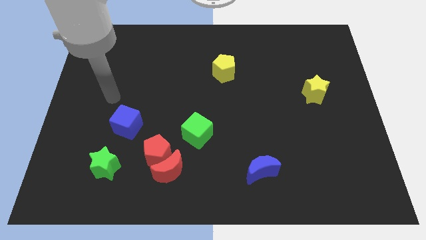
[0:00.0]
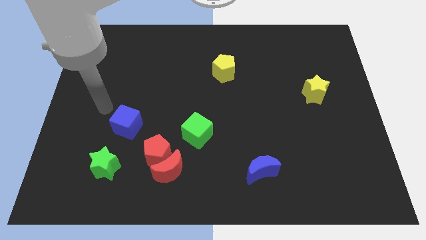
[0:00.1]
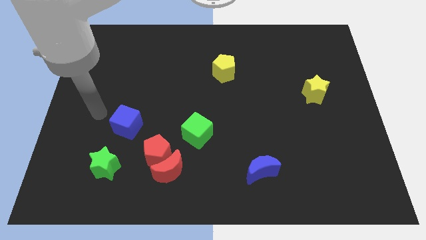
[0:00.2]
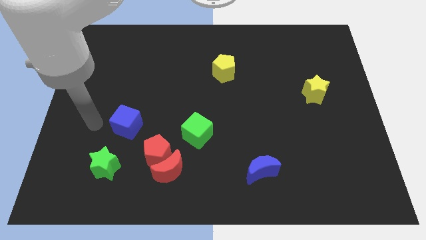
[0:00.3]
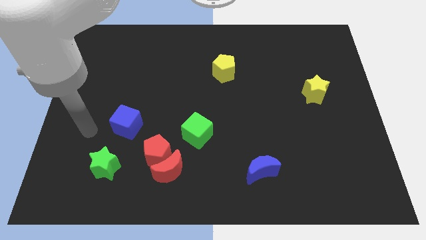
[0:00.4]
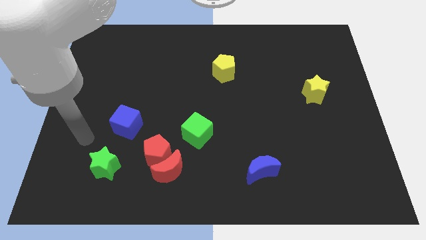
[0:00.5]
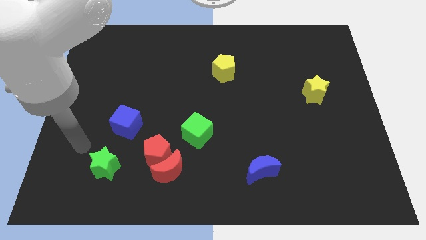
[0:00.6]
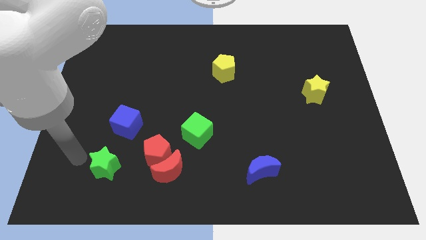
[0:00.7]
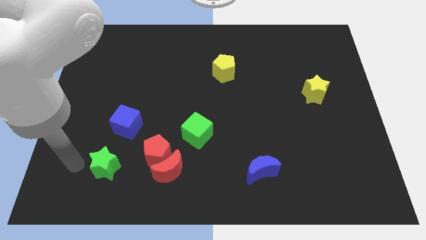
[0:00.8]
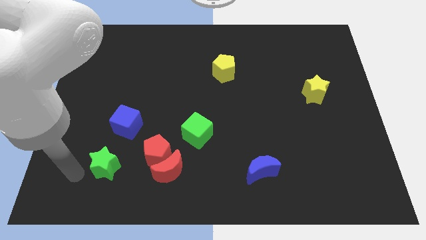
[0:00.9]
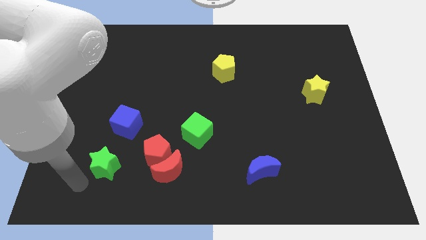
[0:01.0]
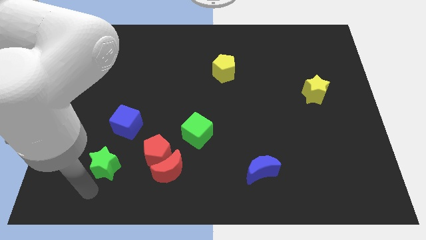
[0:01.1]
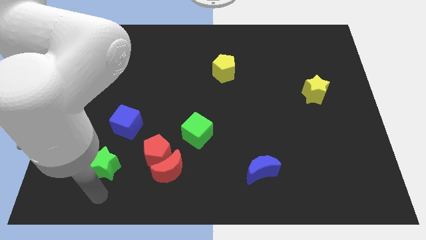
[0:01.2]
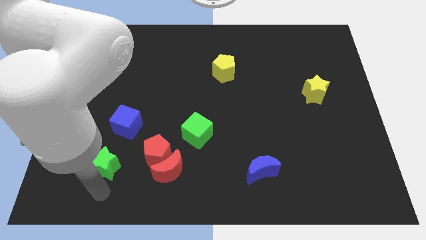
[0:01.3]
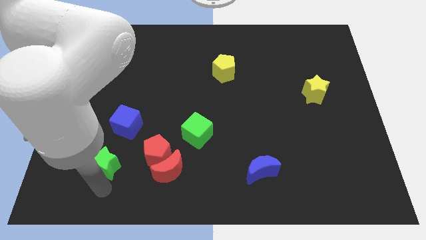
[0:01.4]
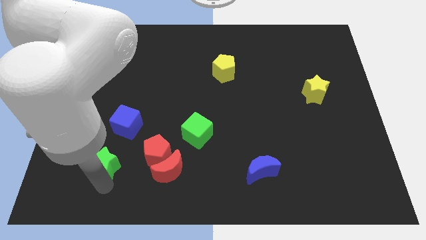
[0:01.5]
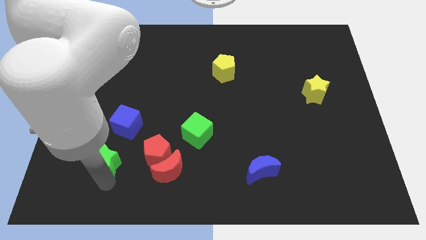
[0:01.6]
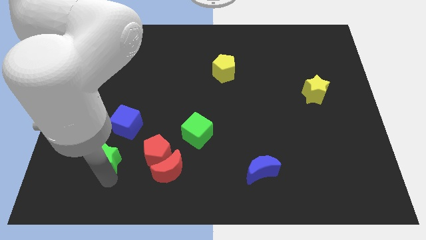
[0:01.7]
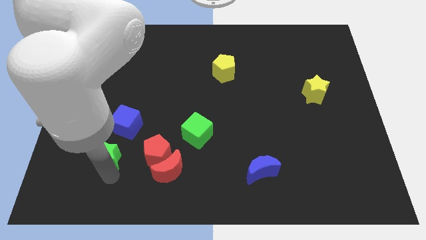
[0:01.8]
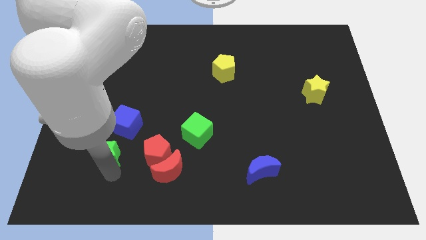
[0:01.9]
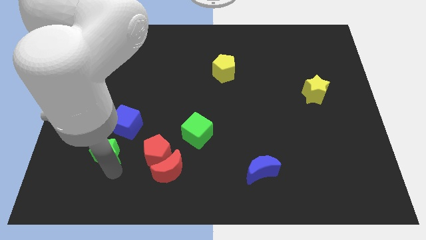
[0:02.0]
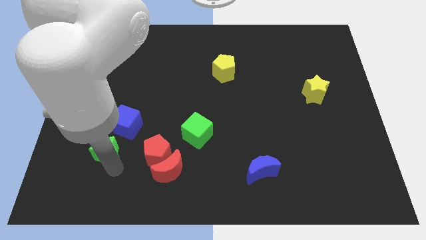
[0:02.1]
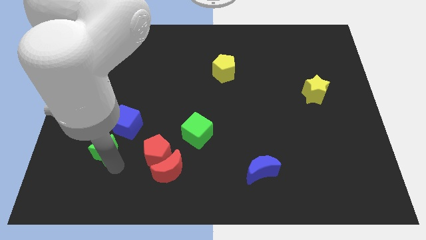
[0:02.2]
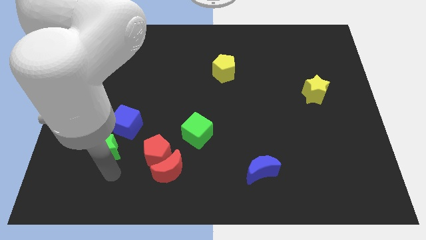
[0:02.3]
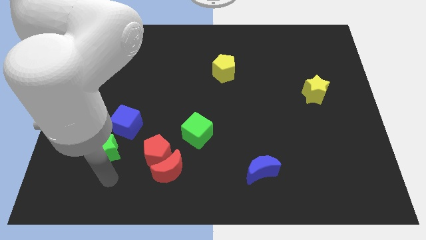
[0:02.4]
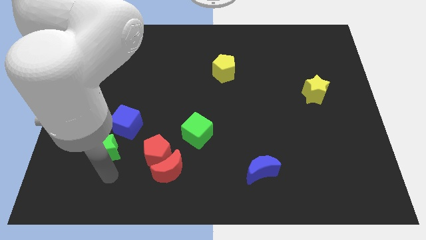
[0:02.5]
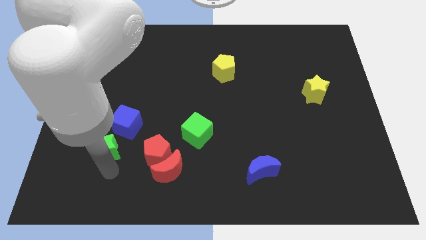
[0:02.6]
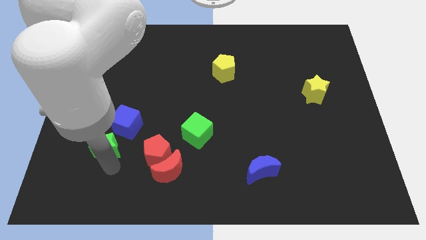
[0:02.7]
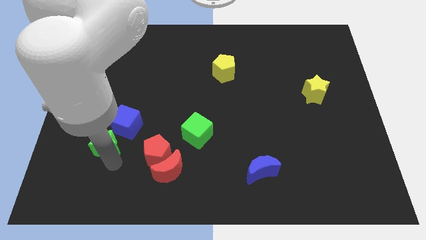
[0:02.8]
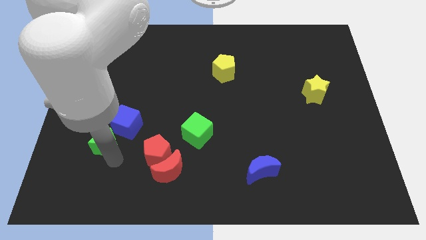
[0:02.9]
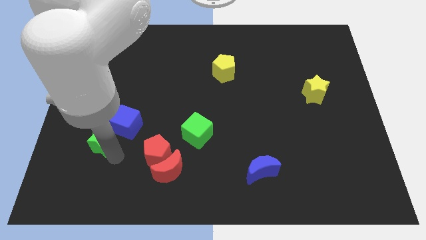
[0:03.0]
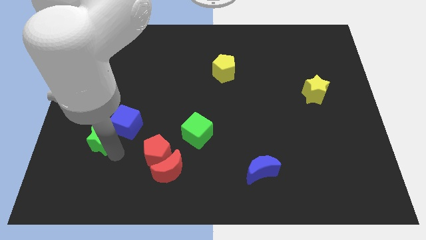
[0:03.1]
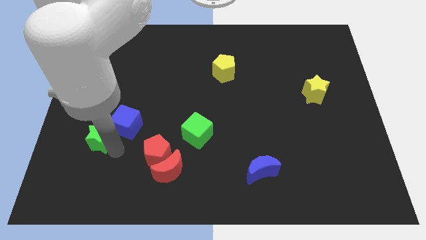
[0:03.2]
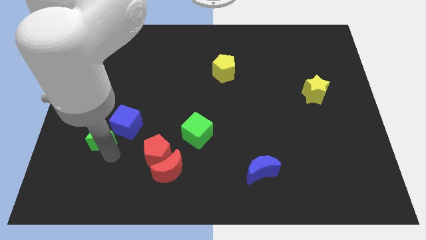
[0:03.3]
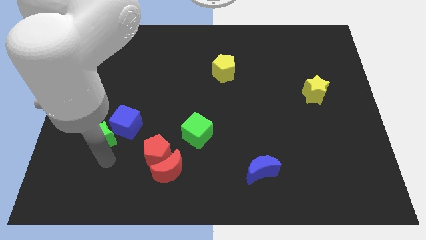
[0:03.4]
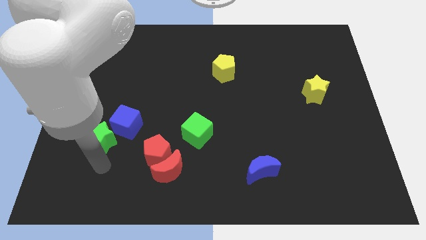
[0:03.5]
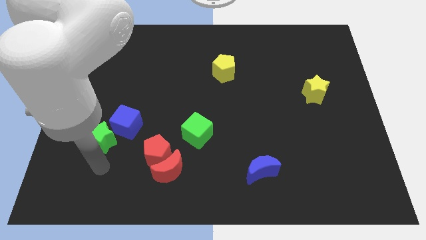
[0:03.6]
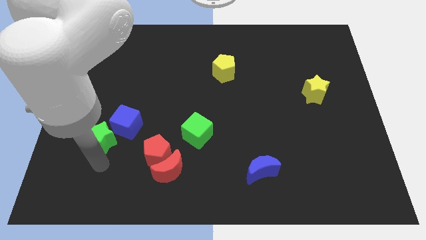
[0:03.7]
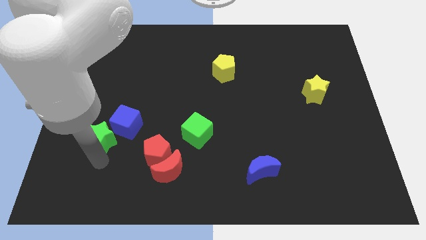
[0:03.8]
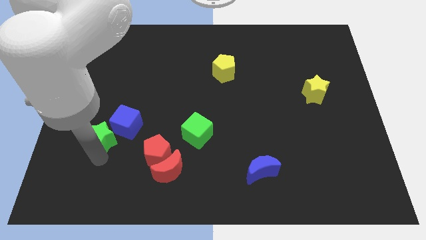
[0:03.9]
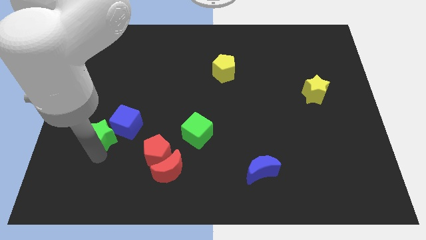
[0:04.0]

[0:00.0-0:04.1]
move the green star a little upwards

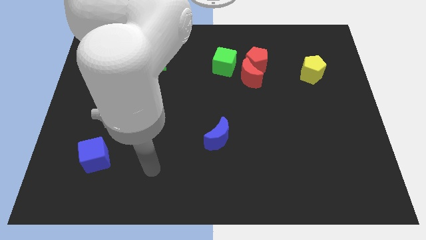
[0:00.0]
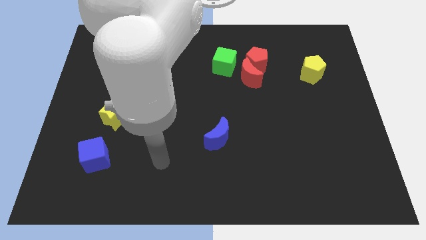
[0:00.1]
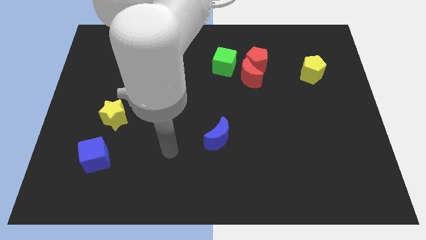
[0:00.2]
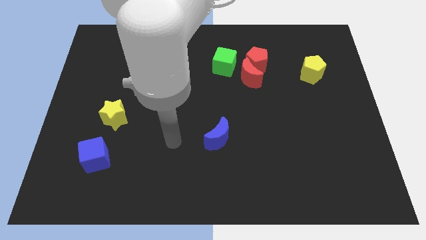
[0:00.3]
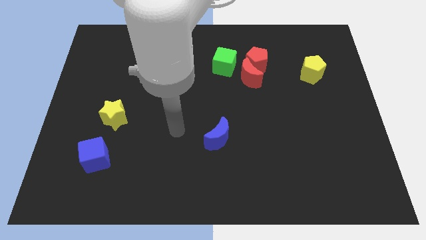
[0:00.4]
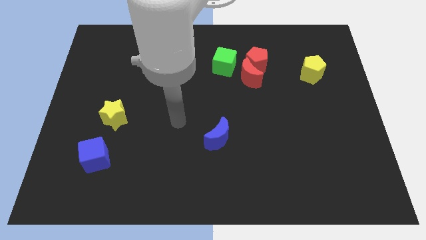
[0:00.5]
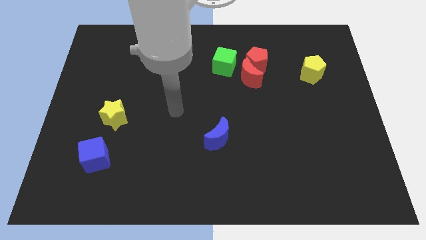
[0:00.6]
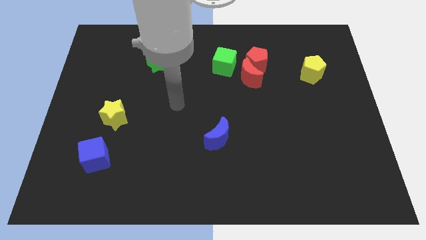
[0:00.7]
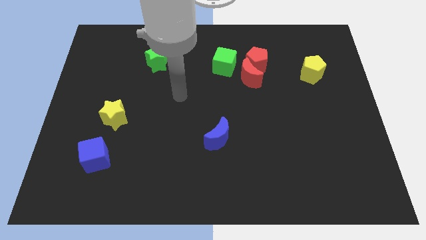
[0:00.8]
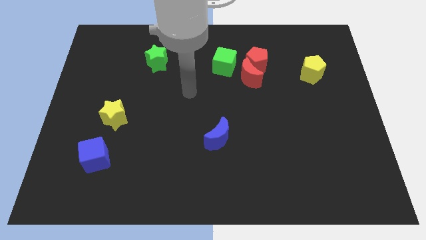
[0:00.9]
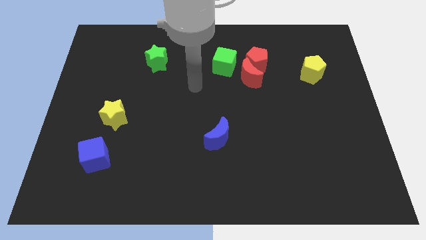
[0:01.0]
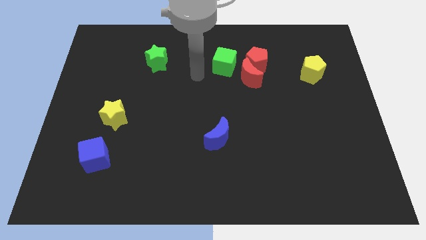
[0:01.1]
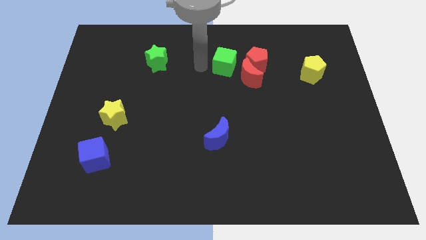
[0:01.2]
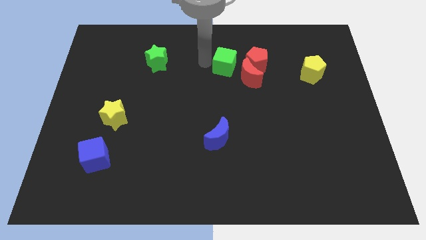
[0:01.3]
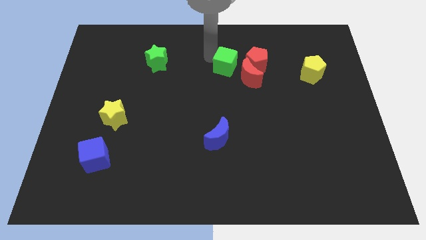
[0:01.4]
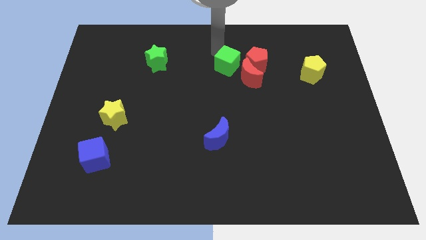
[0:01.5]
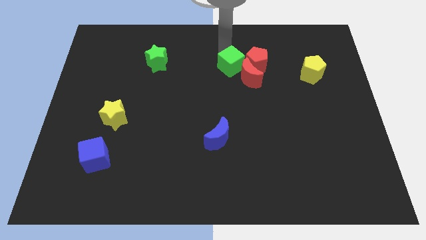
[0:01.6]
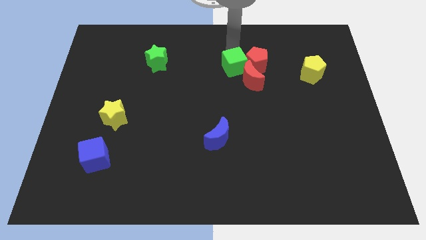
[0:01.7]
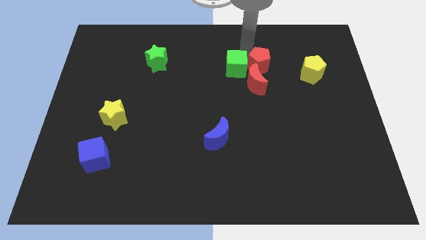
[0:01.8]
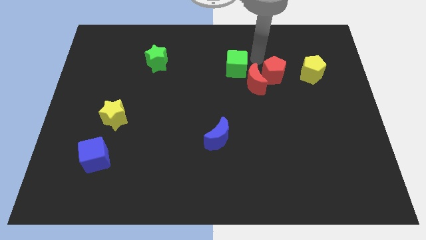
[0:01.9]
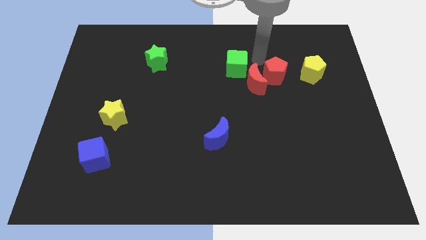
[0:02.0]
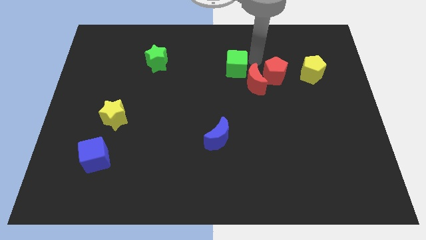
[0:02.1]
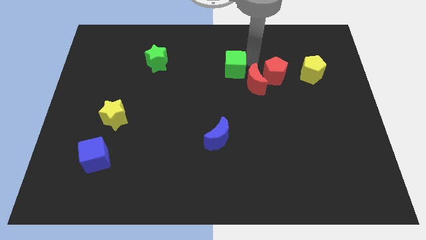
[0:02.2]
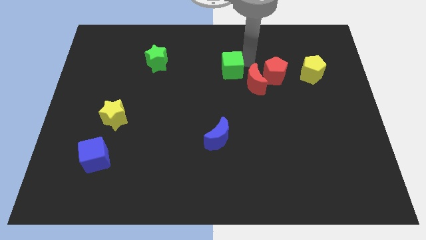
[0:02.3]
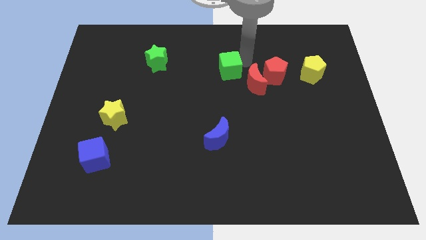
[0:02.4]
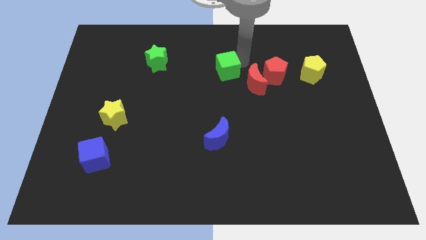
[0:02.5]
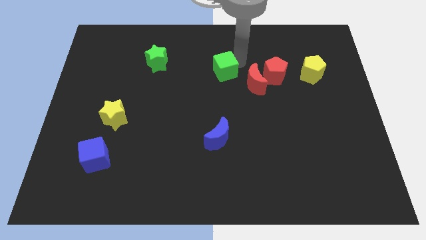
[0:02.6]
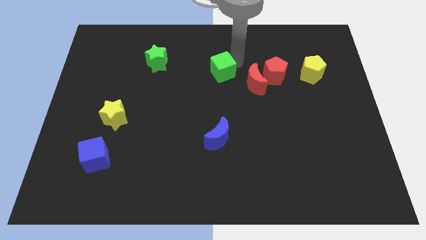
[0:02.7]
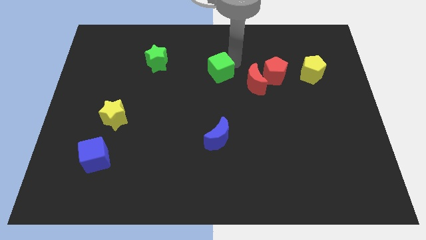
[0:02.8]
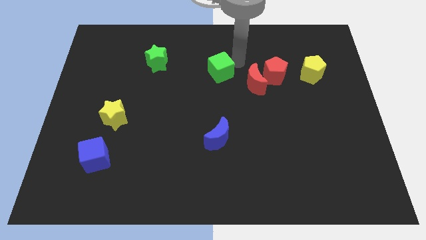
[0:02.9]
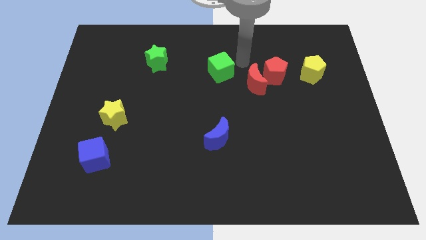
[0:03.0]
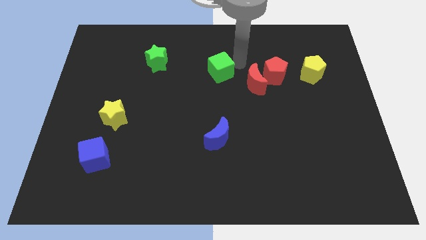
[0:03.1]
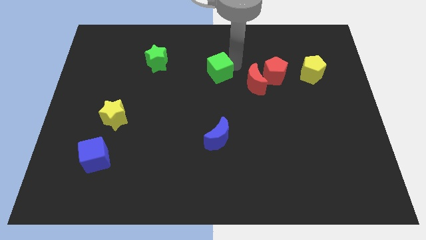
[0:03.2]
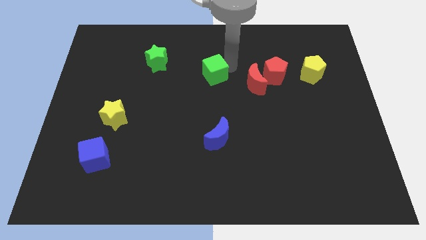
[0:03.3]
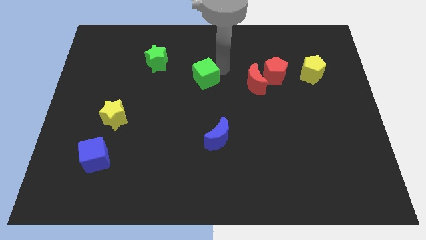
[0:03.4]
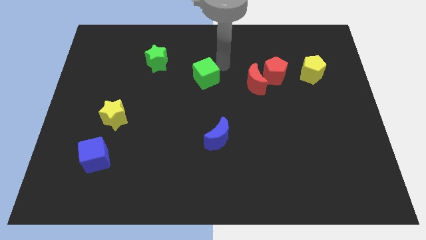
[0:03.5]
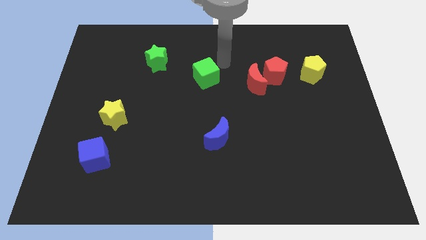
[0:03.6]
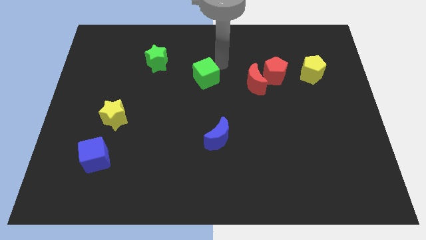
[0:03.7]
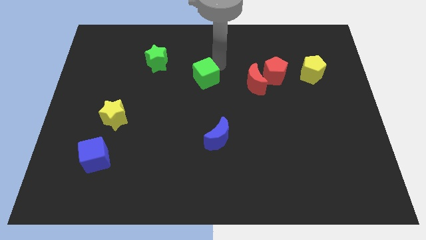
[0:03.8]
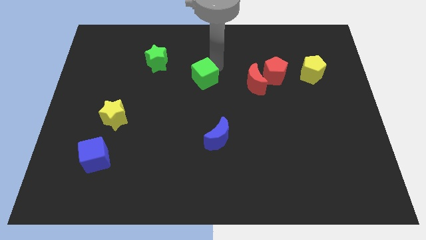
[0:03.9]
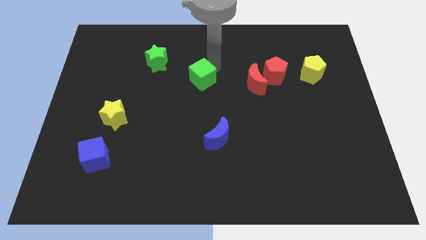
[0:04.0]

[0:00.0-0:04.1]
move the green cube a little downwards and to the left
